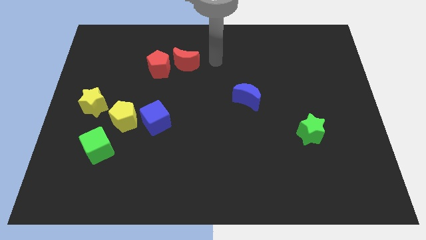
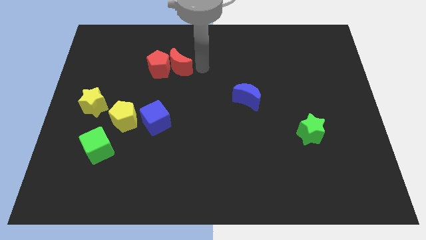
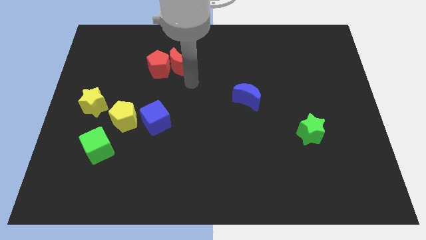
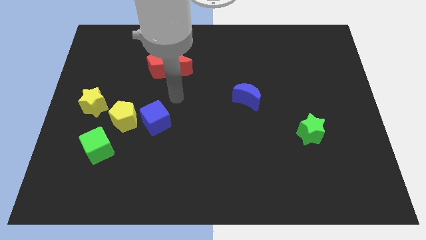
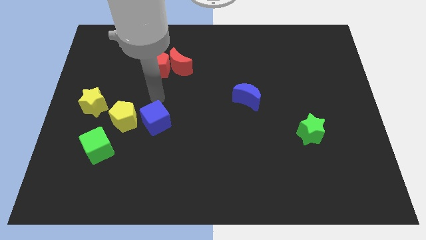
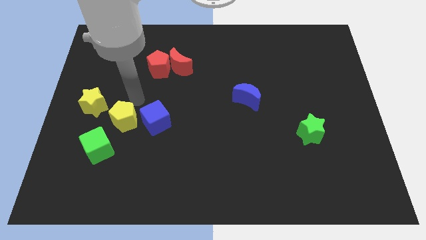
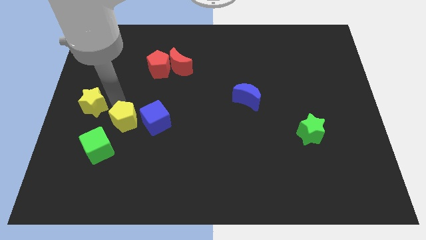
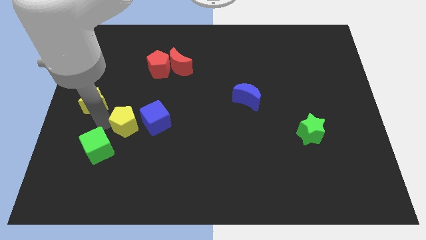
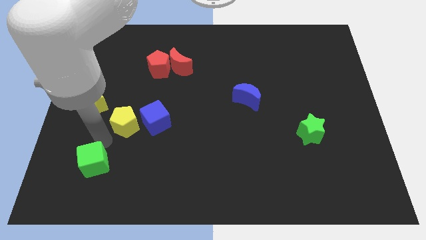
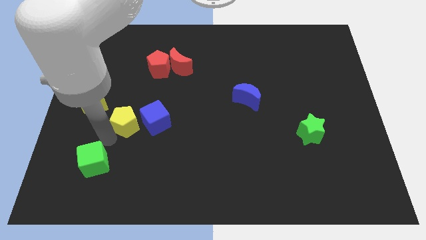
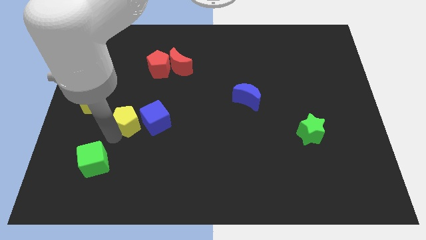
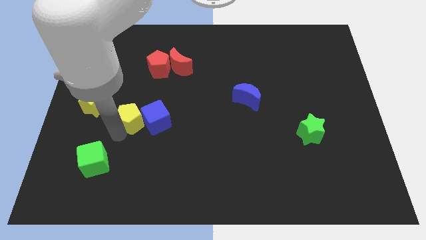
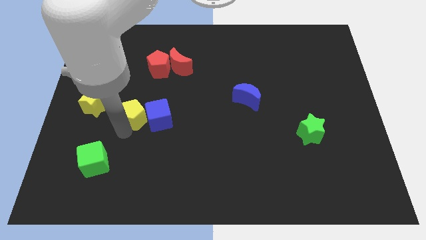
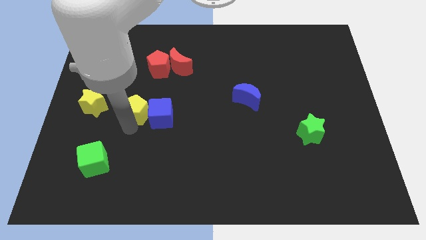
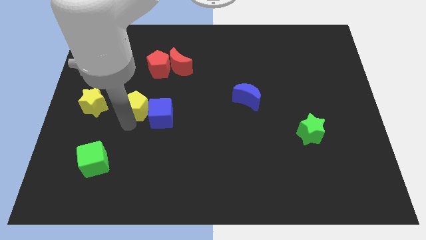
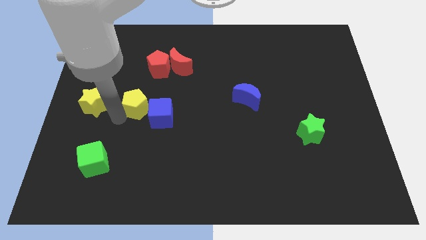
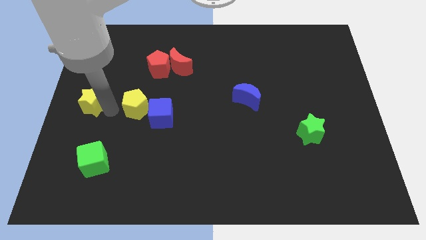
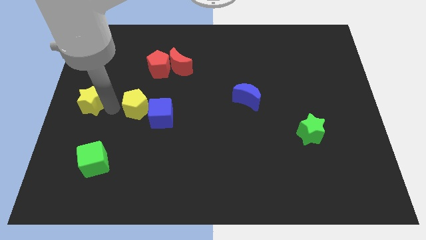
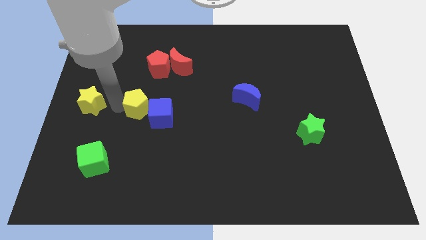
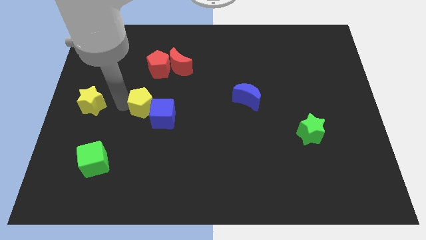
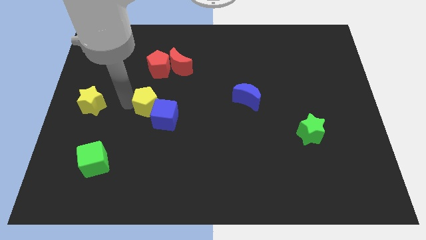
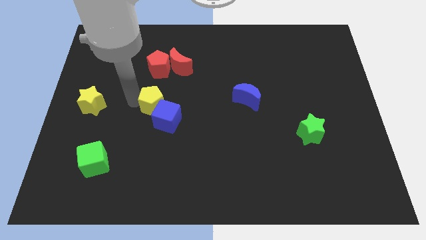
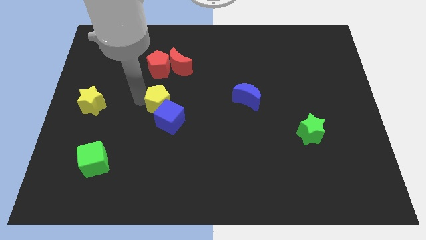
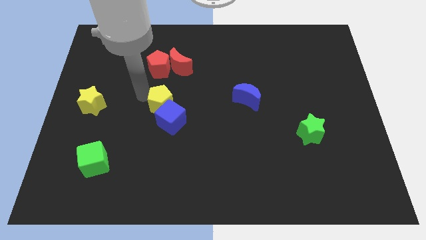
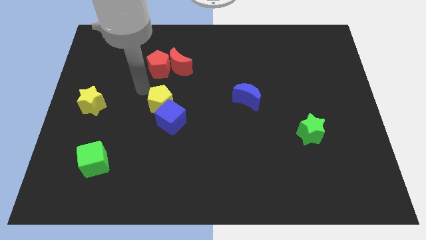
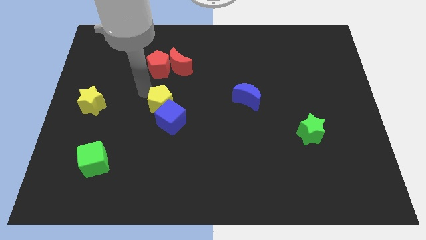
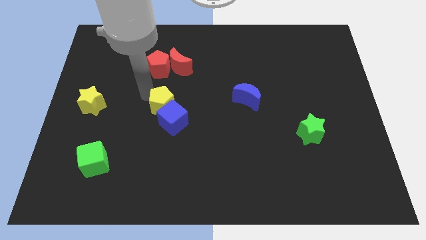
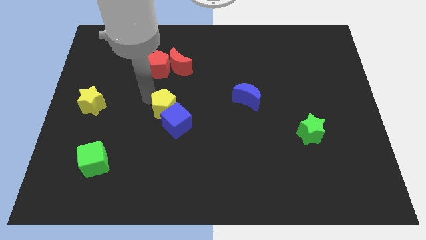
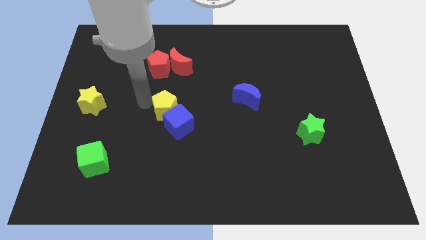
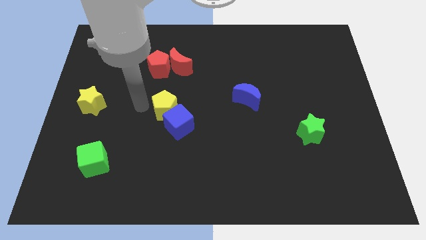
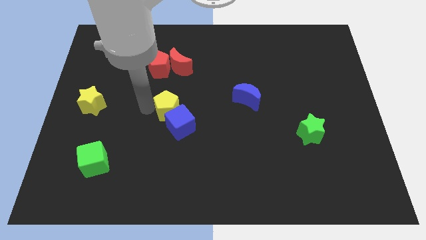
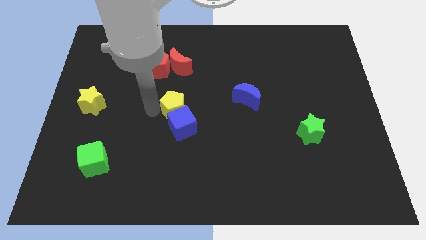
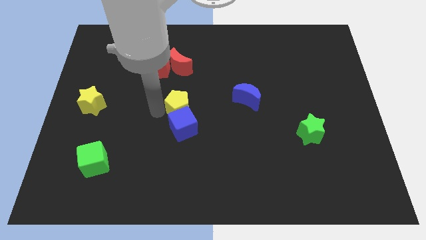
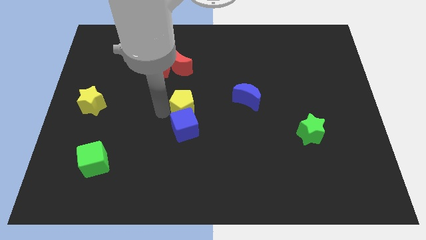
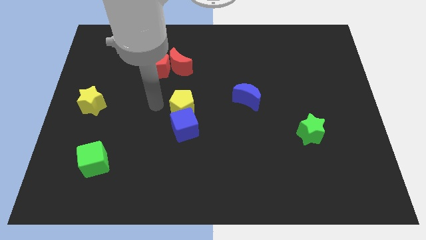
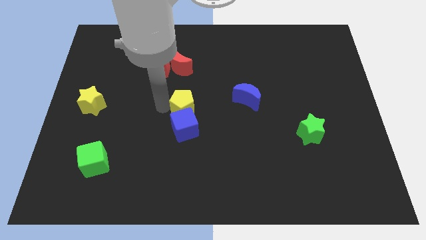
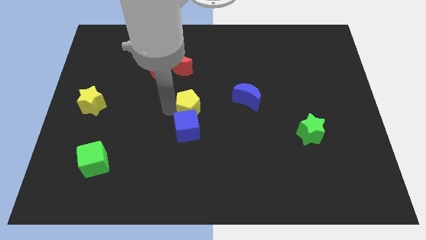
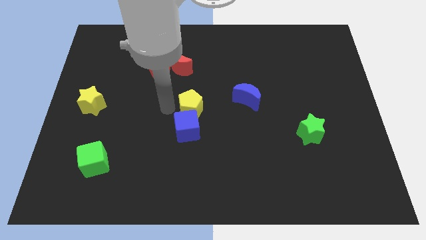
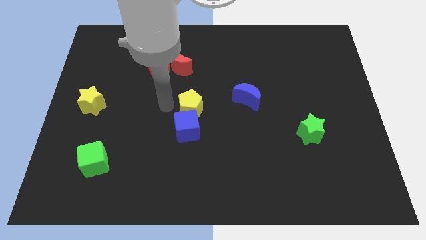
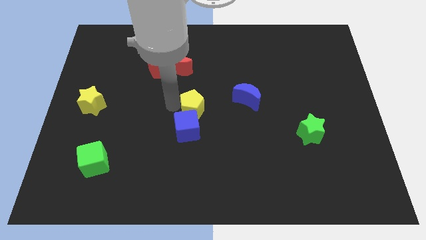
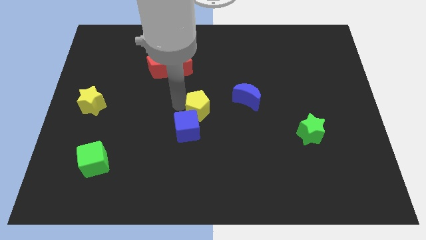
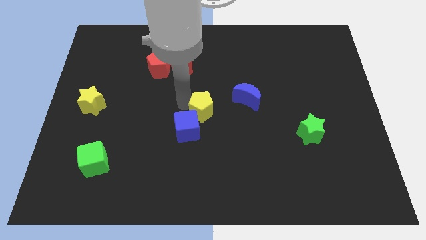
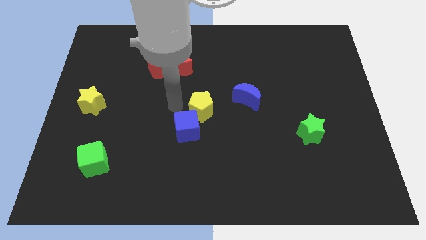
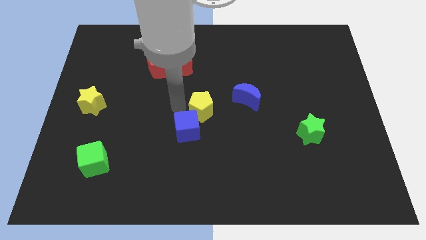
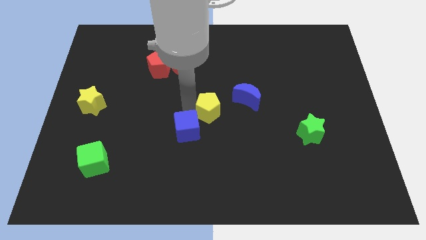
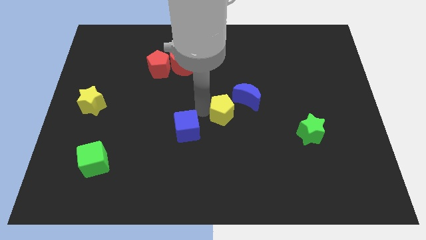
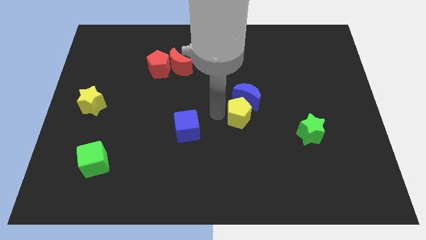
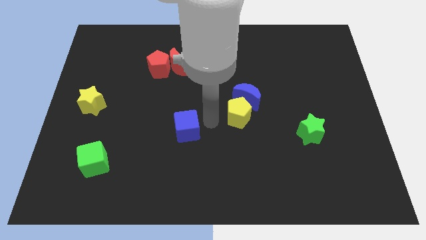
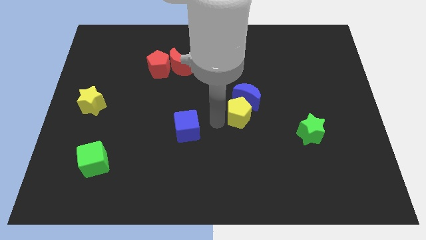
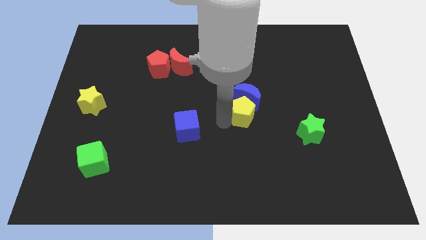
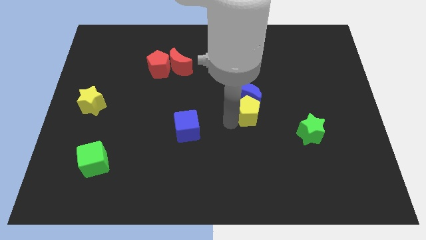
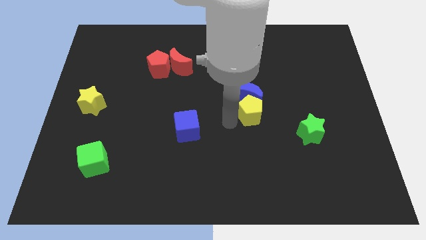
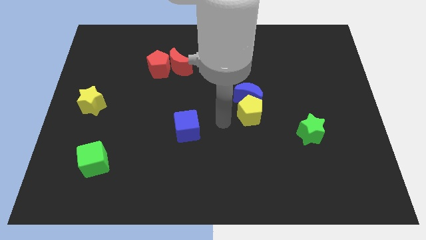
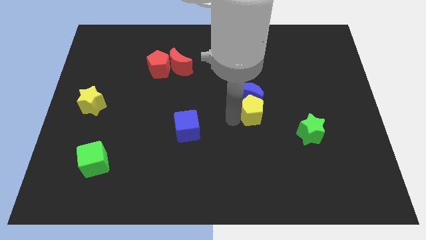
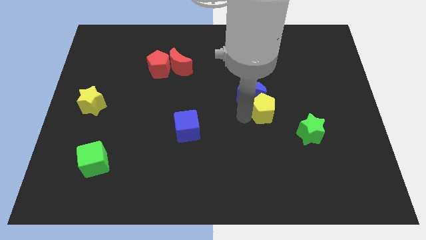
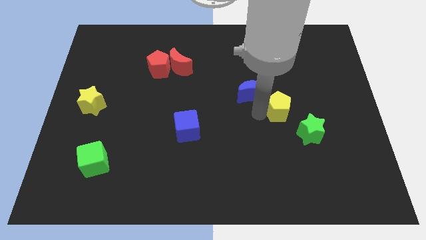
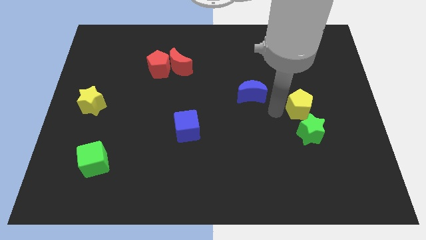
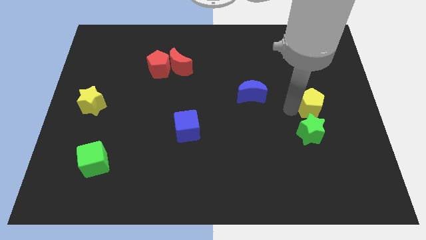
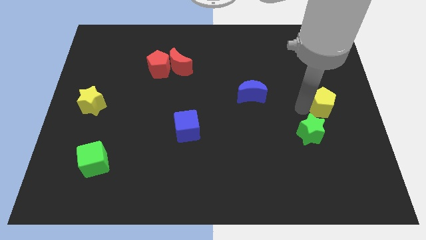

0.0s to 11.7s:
slide the yellow pentagon to the right side of the board
